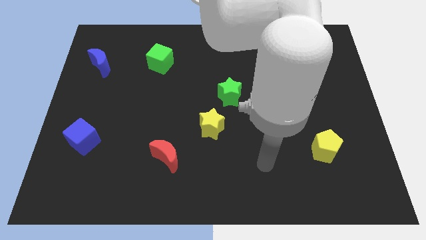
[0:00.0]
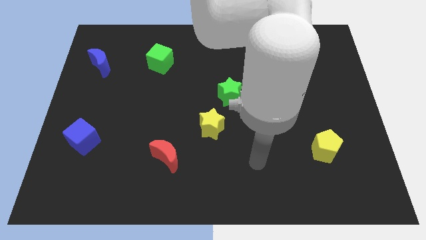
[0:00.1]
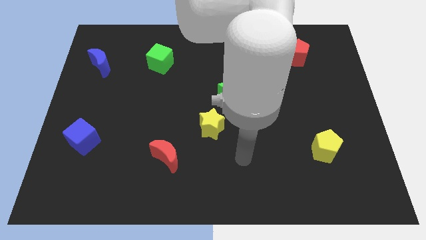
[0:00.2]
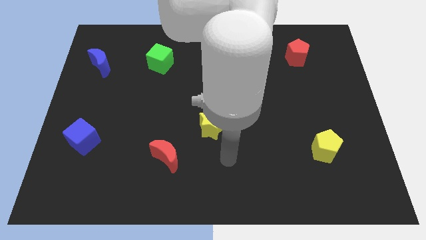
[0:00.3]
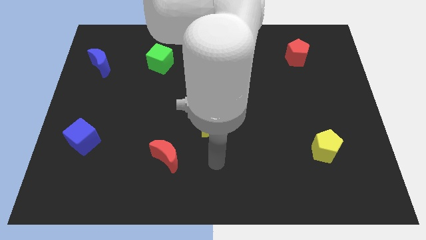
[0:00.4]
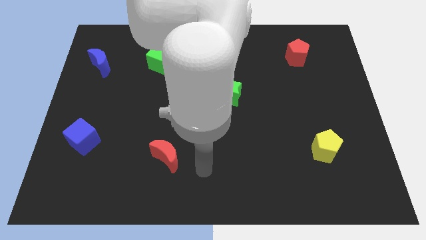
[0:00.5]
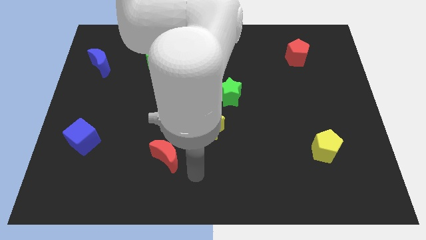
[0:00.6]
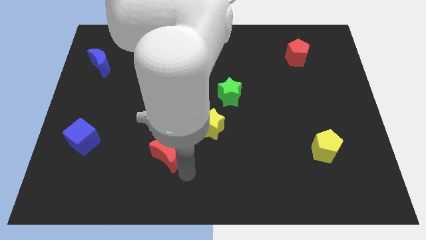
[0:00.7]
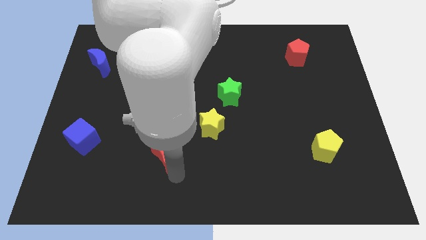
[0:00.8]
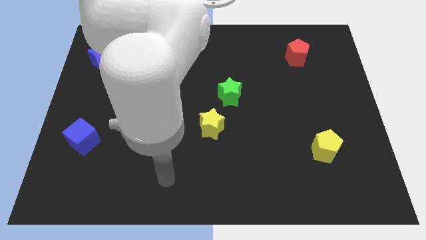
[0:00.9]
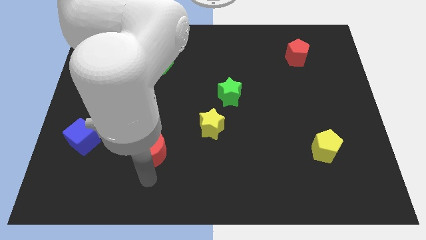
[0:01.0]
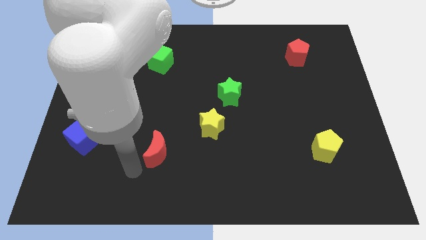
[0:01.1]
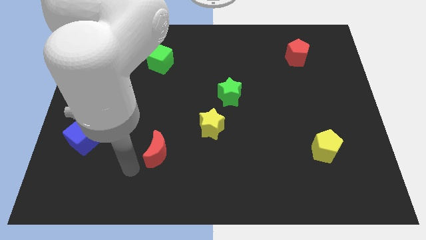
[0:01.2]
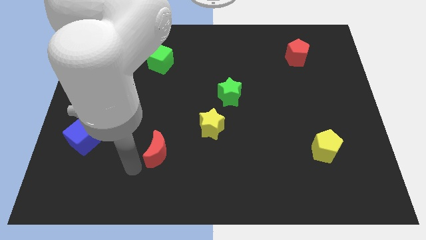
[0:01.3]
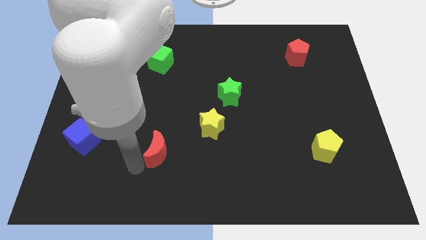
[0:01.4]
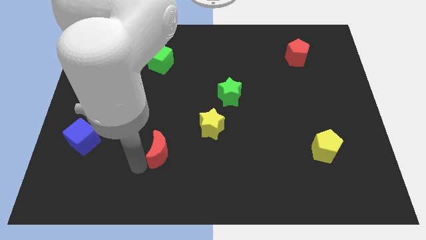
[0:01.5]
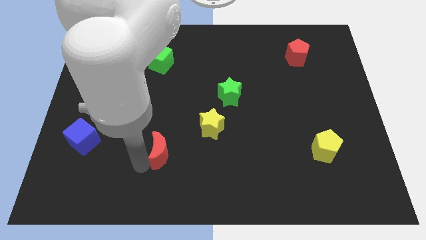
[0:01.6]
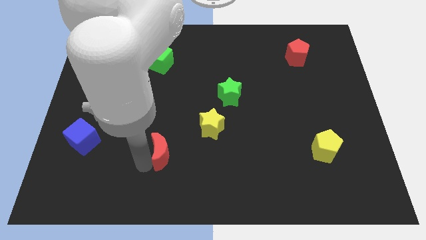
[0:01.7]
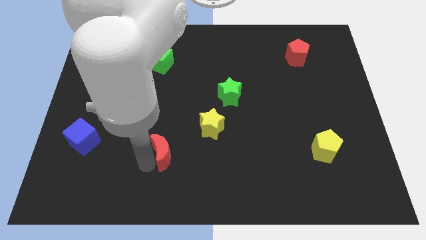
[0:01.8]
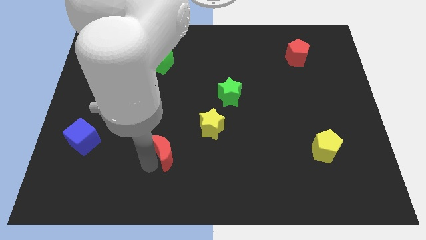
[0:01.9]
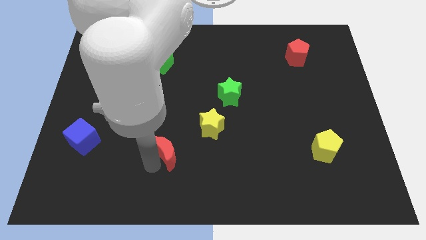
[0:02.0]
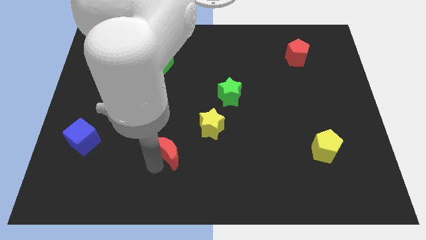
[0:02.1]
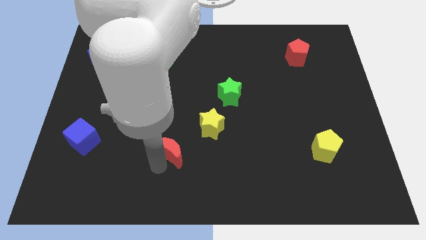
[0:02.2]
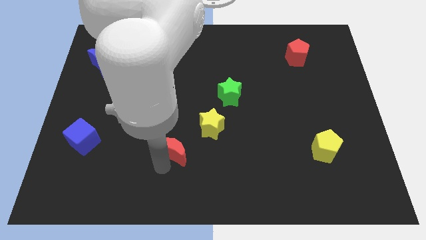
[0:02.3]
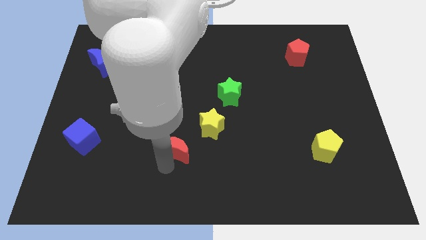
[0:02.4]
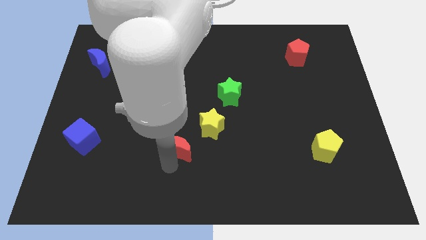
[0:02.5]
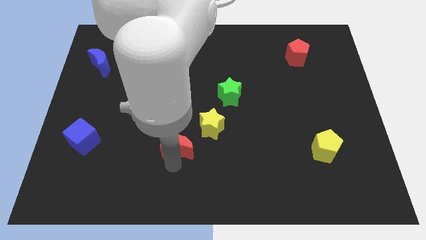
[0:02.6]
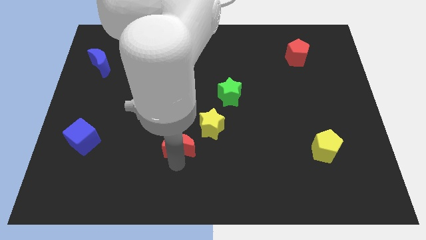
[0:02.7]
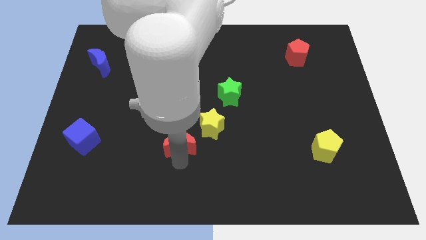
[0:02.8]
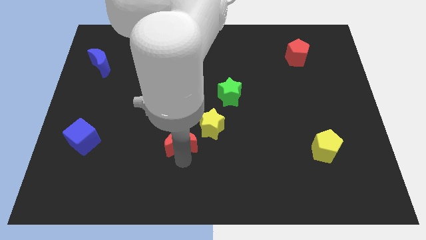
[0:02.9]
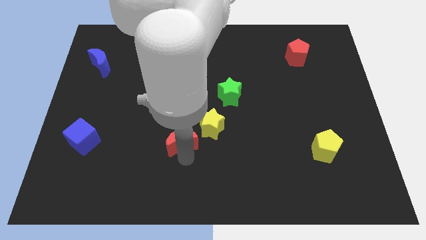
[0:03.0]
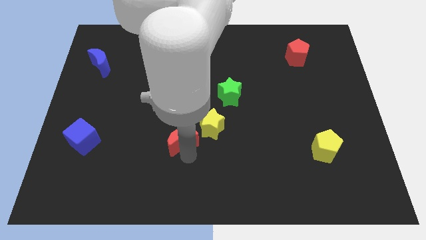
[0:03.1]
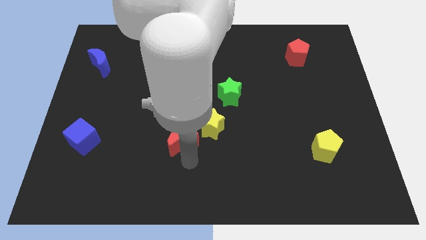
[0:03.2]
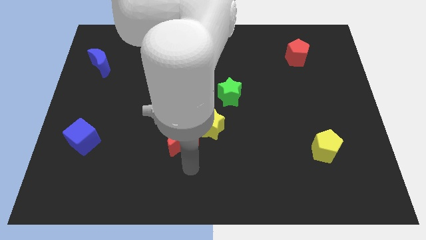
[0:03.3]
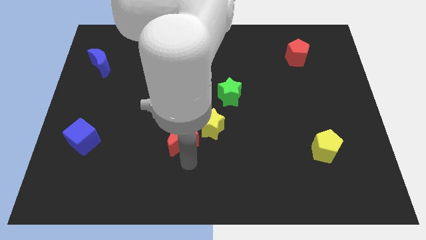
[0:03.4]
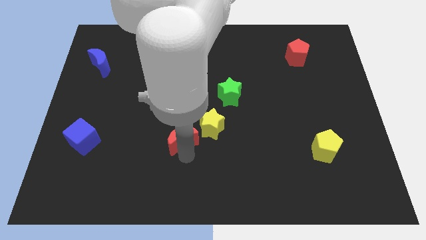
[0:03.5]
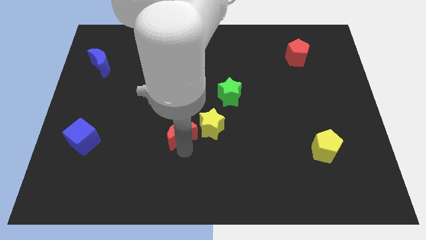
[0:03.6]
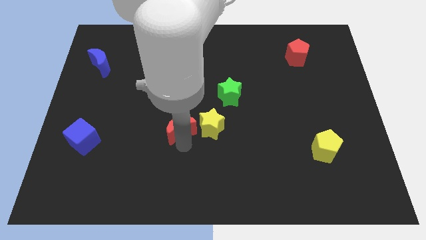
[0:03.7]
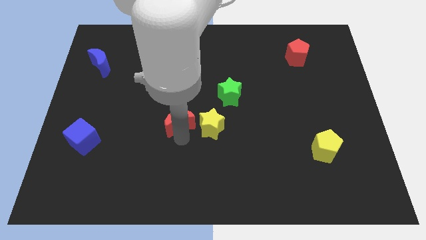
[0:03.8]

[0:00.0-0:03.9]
slide the red moon a bit up

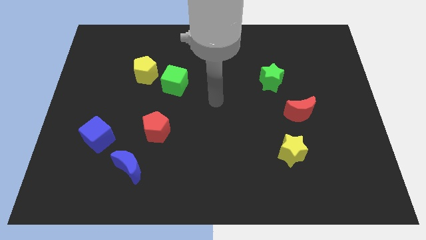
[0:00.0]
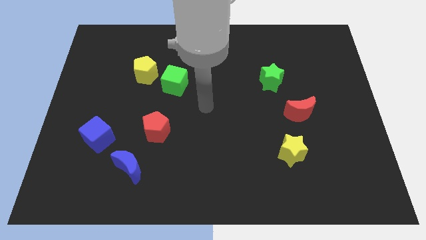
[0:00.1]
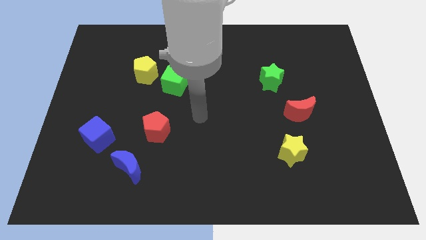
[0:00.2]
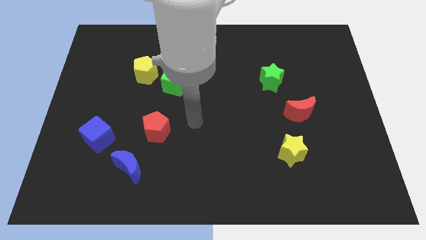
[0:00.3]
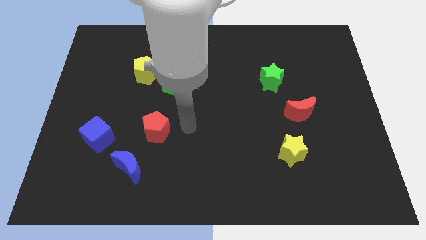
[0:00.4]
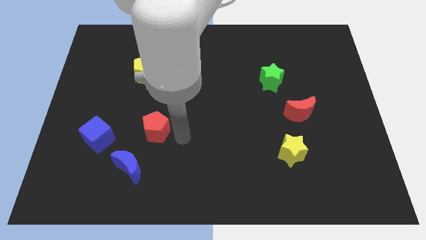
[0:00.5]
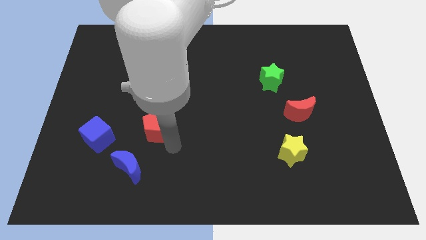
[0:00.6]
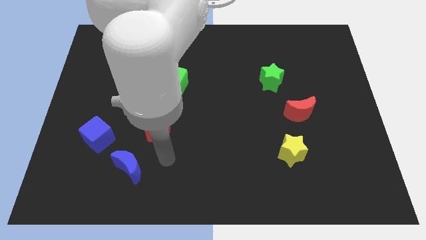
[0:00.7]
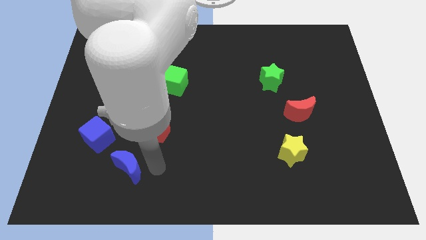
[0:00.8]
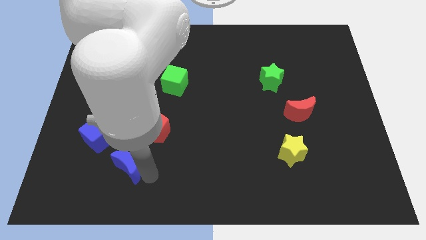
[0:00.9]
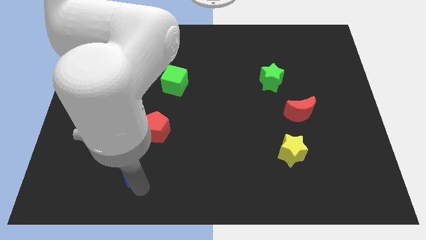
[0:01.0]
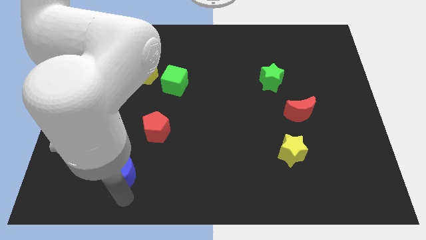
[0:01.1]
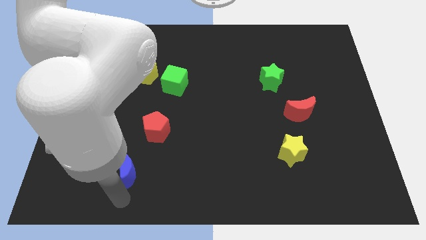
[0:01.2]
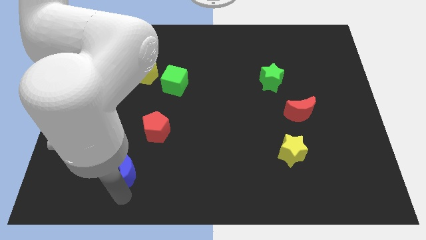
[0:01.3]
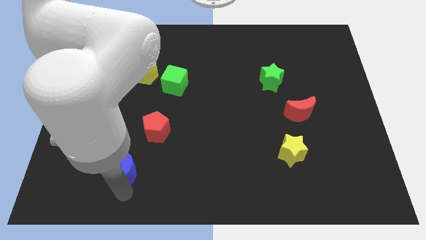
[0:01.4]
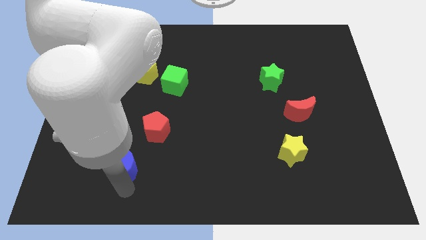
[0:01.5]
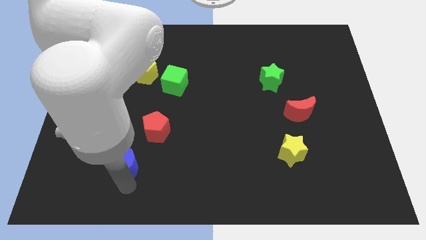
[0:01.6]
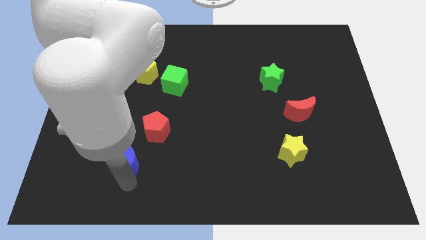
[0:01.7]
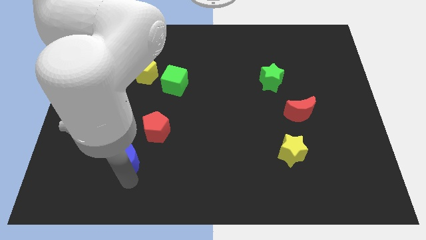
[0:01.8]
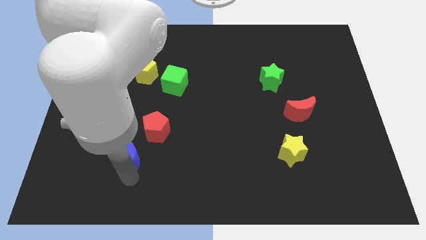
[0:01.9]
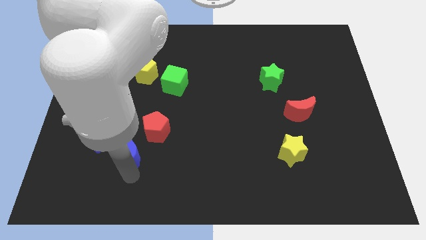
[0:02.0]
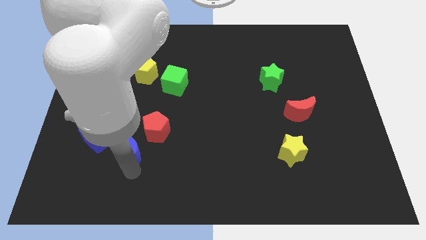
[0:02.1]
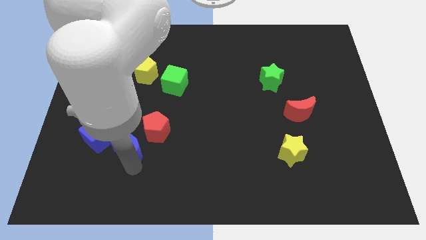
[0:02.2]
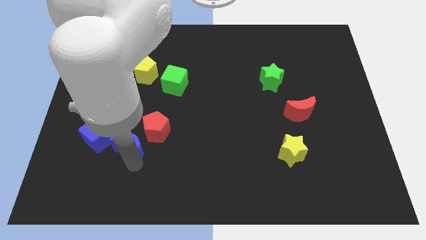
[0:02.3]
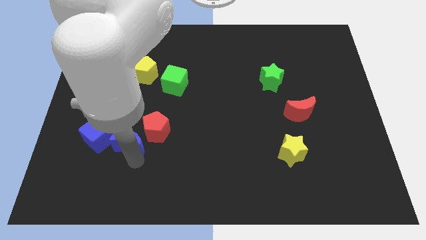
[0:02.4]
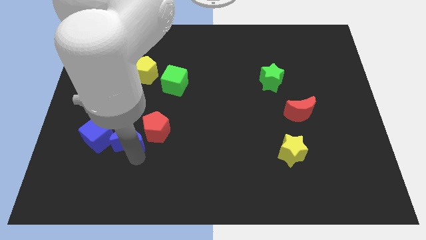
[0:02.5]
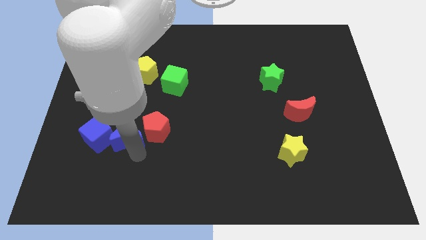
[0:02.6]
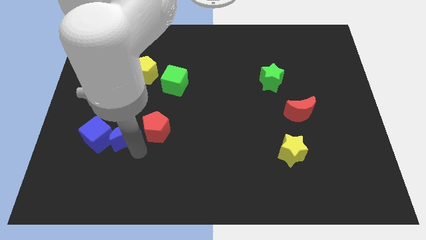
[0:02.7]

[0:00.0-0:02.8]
move the blue moon a little upwards

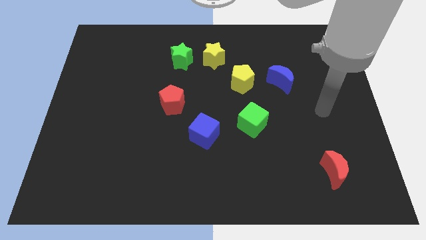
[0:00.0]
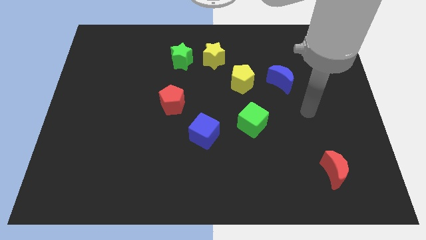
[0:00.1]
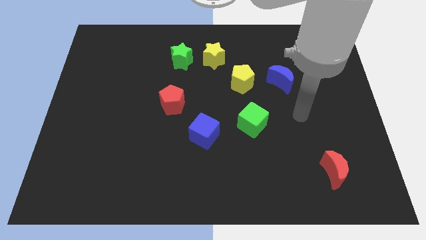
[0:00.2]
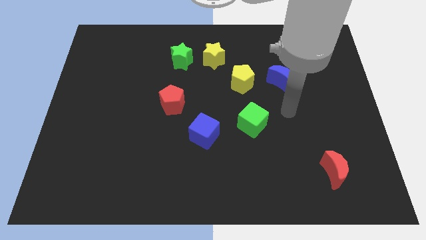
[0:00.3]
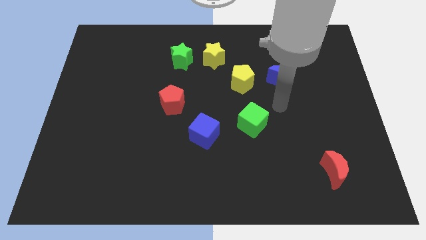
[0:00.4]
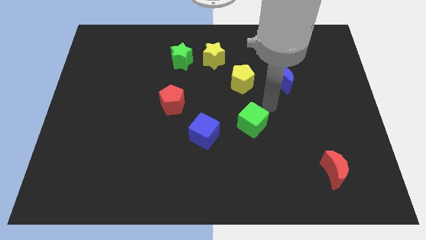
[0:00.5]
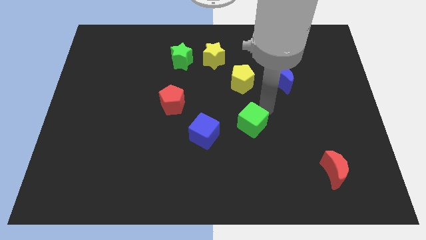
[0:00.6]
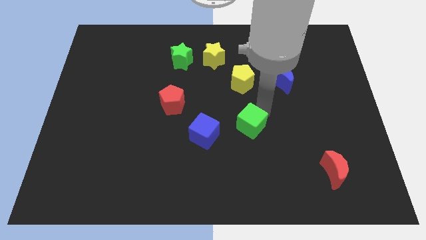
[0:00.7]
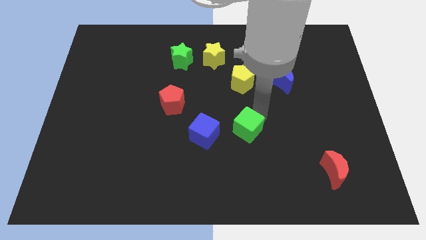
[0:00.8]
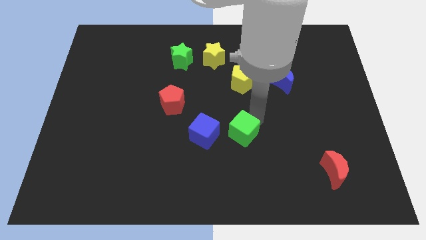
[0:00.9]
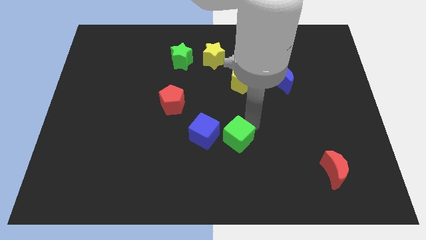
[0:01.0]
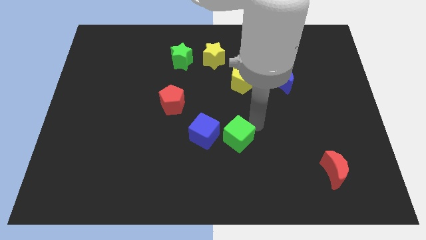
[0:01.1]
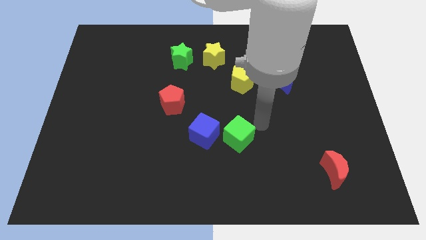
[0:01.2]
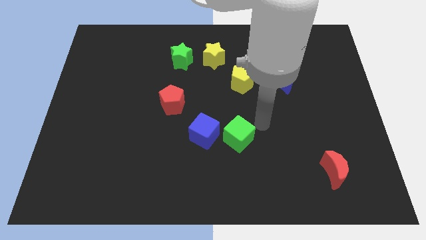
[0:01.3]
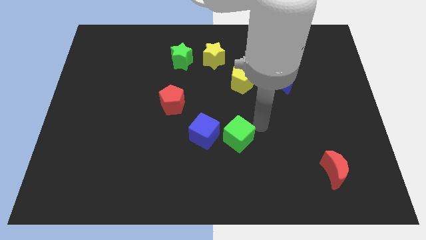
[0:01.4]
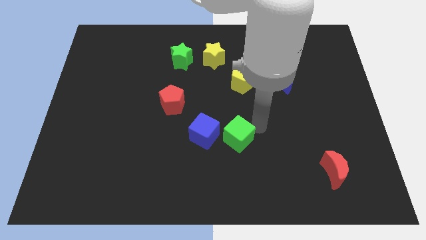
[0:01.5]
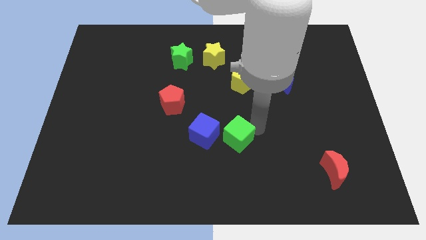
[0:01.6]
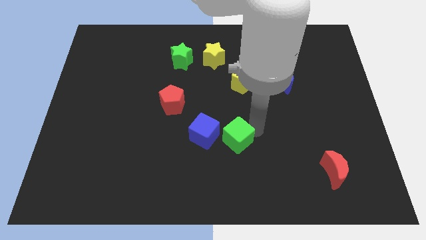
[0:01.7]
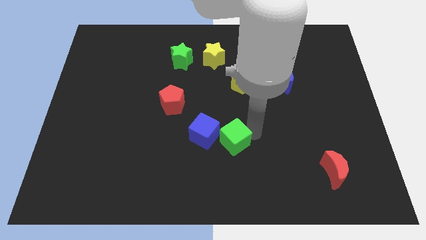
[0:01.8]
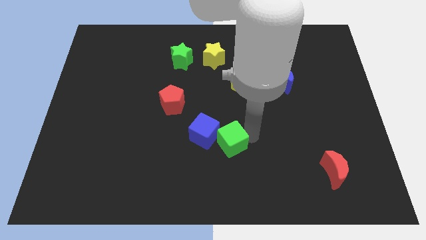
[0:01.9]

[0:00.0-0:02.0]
push the green cube diagonally down and left slightly
